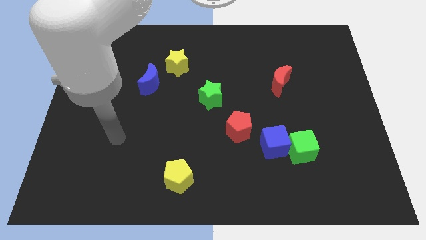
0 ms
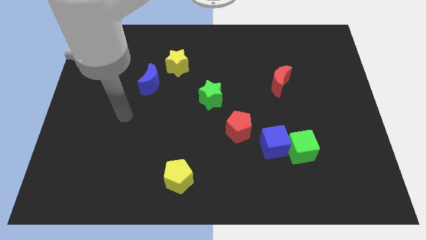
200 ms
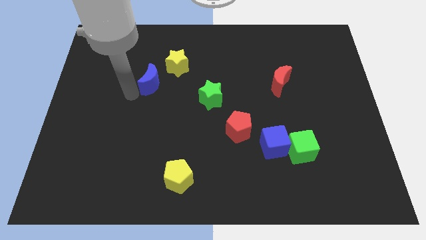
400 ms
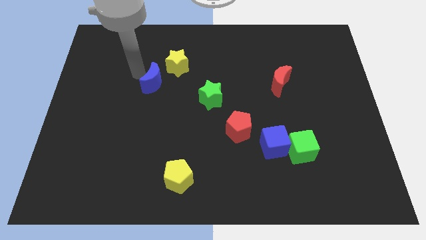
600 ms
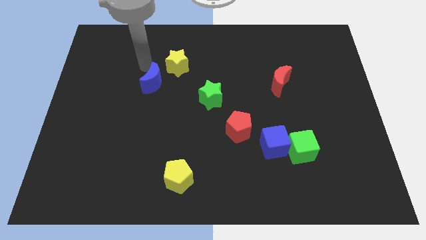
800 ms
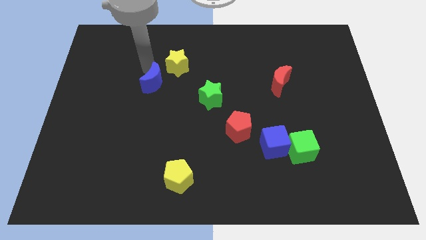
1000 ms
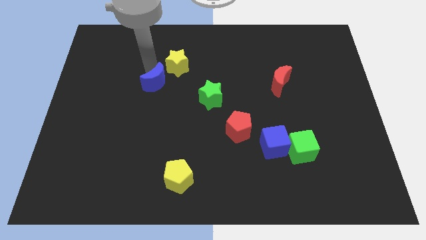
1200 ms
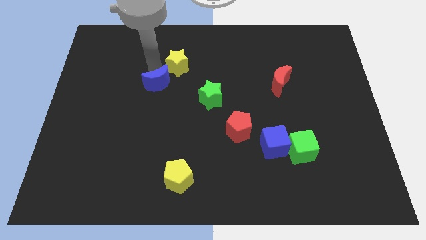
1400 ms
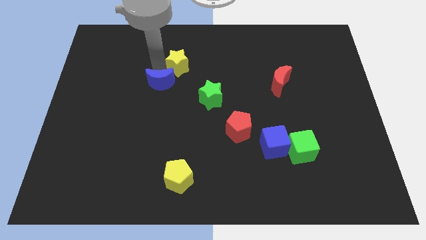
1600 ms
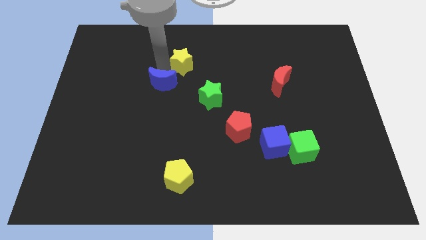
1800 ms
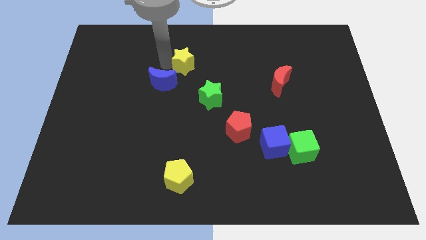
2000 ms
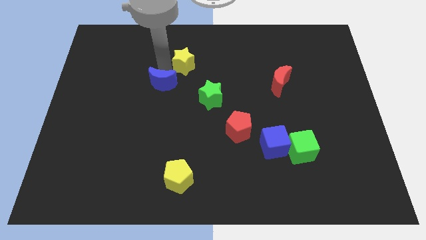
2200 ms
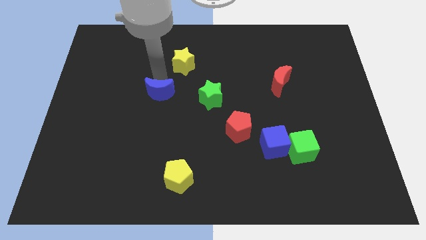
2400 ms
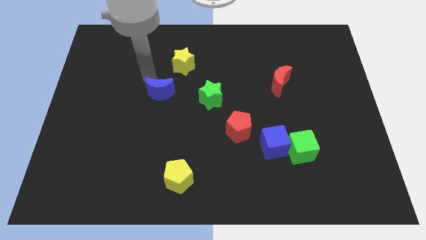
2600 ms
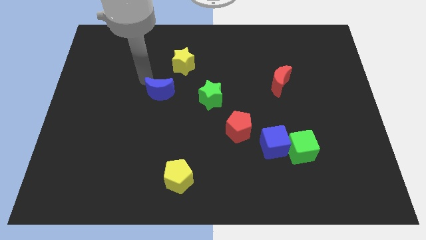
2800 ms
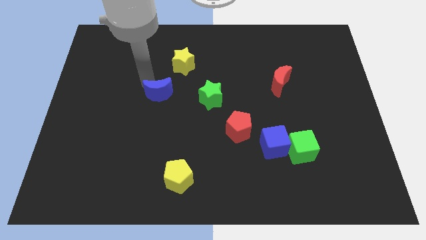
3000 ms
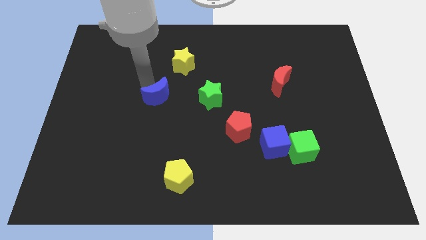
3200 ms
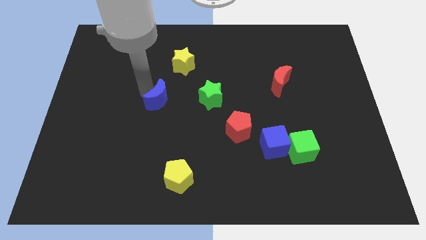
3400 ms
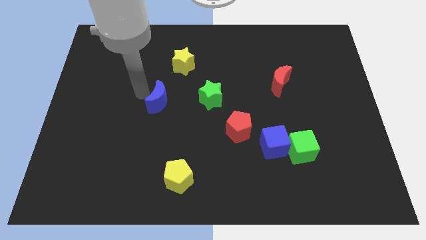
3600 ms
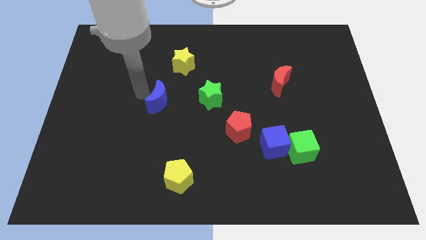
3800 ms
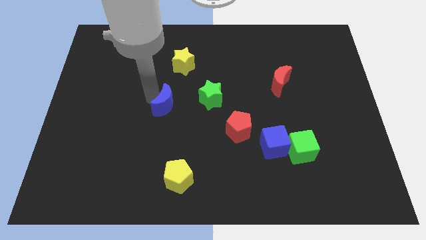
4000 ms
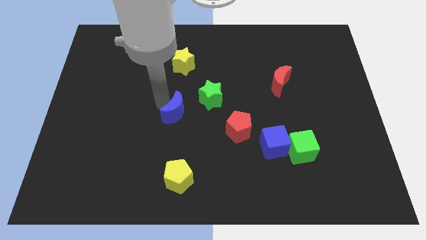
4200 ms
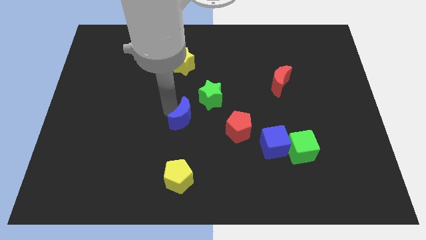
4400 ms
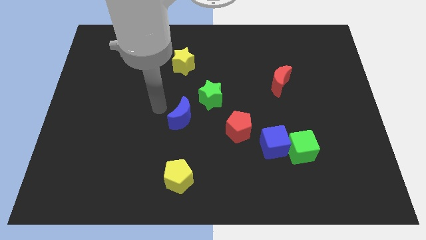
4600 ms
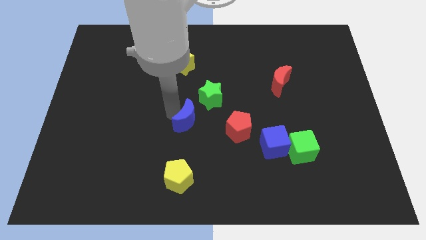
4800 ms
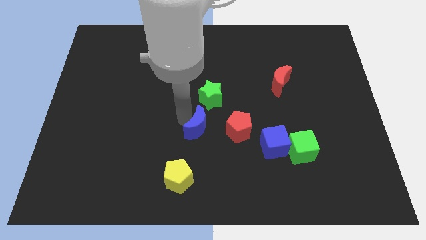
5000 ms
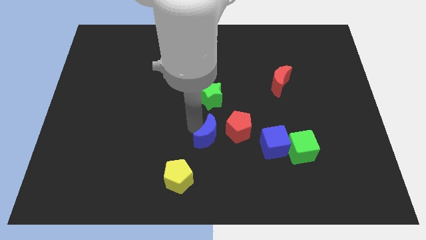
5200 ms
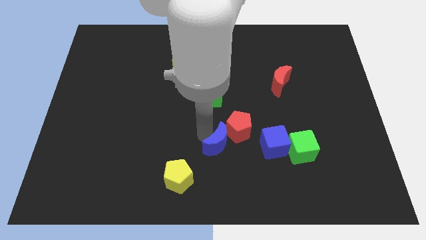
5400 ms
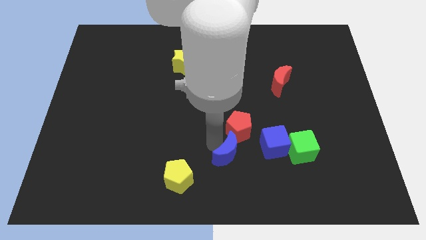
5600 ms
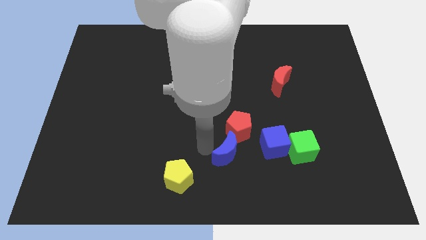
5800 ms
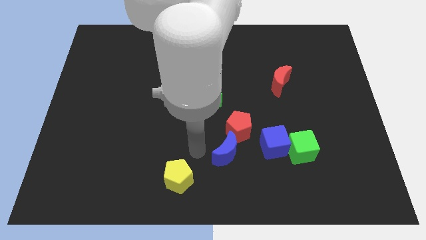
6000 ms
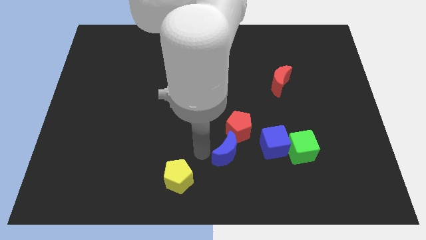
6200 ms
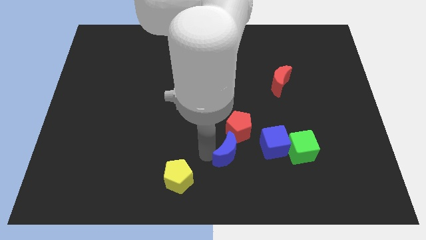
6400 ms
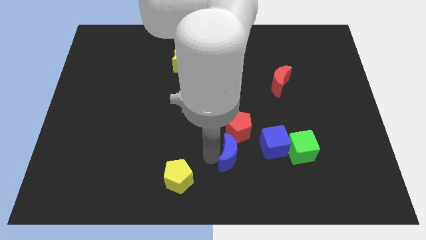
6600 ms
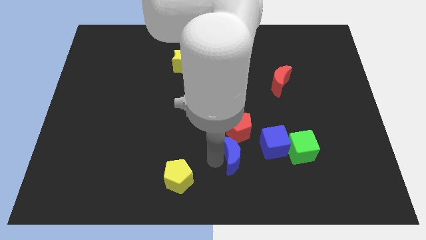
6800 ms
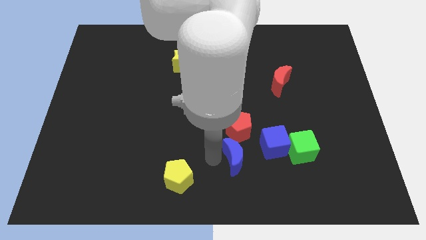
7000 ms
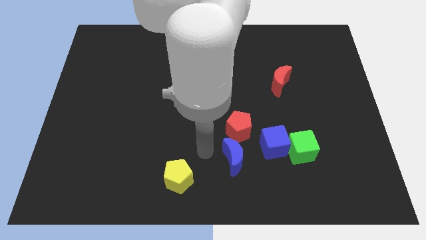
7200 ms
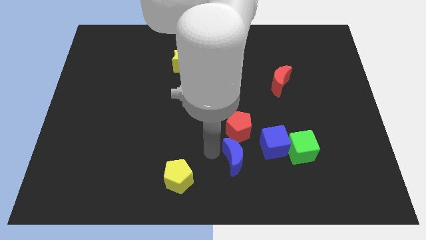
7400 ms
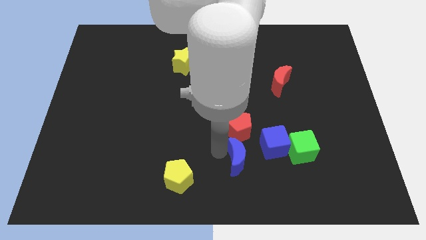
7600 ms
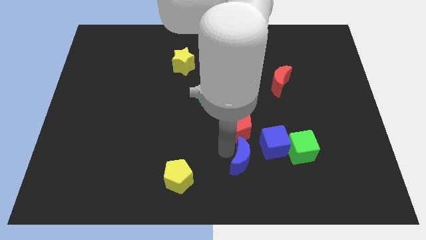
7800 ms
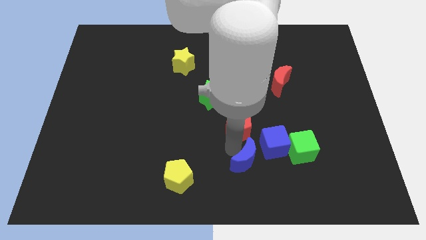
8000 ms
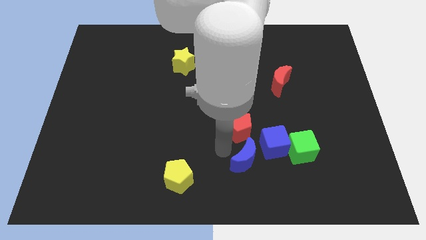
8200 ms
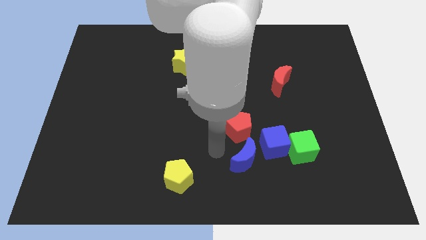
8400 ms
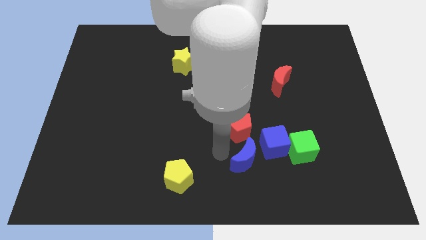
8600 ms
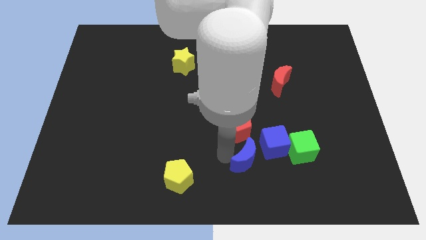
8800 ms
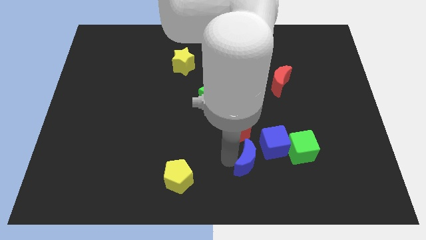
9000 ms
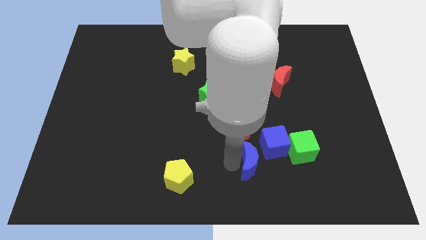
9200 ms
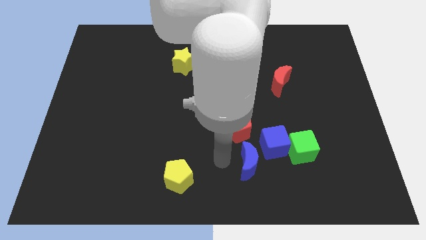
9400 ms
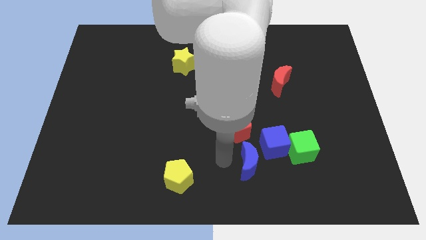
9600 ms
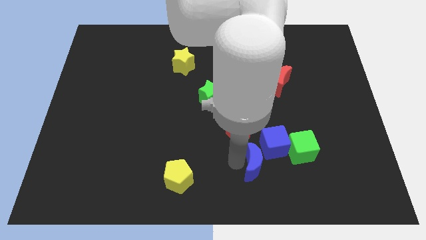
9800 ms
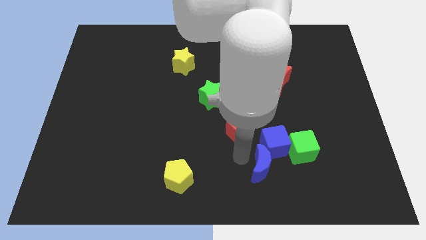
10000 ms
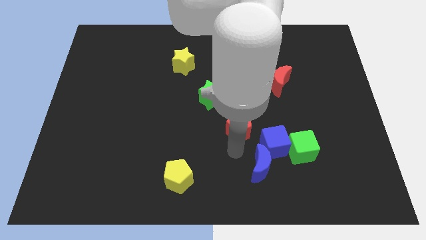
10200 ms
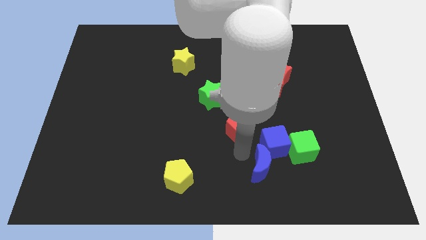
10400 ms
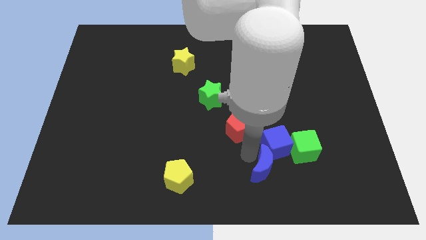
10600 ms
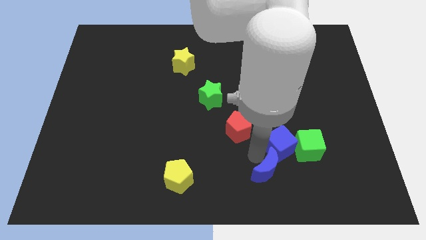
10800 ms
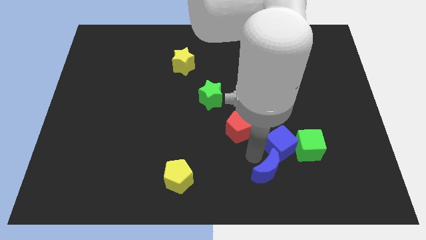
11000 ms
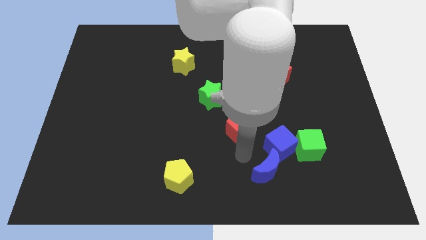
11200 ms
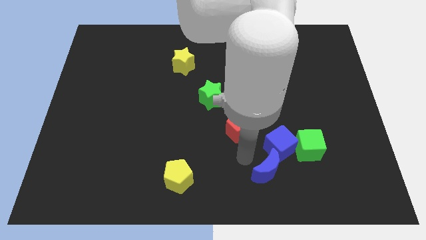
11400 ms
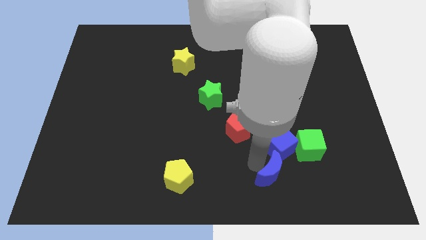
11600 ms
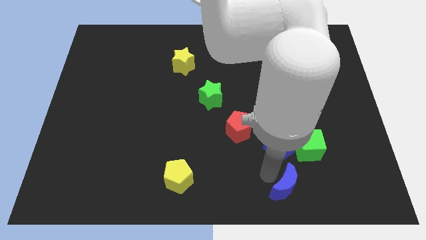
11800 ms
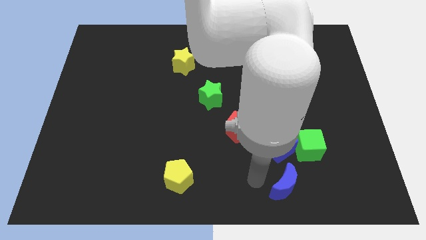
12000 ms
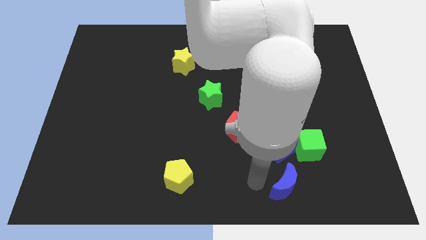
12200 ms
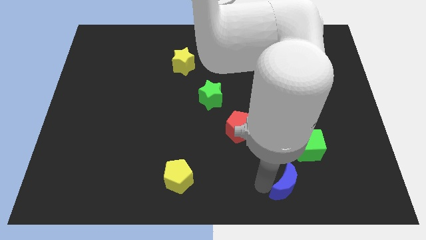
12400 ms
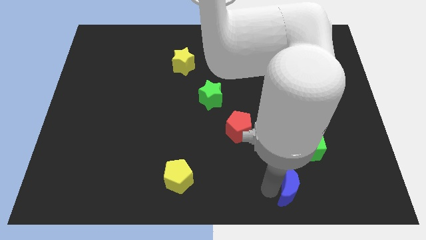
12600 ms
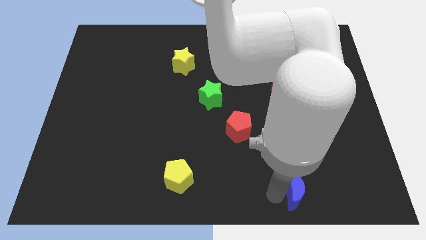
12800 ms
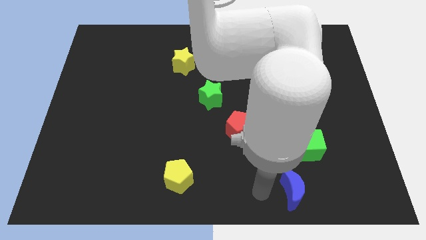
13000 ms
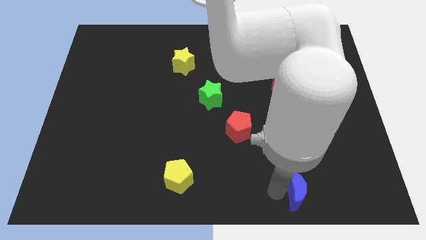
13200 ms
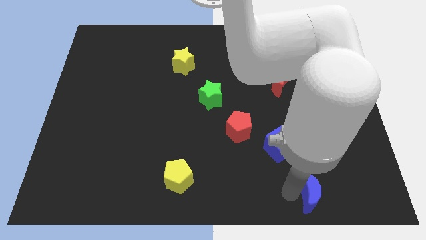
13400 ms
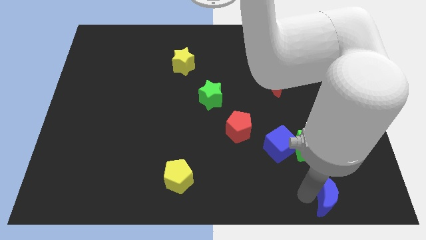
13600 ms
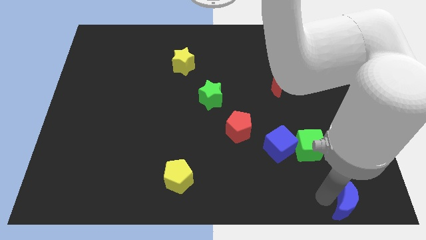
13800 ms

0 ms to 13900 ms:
put the blue moon to the bottom right of the board
